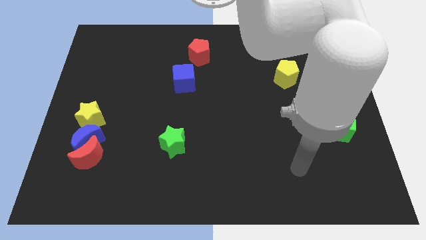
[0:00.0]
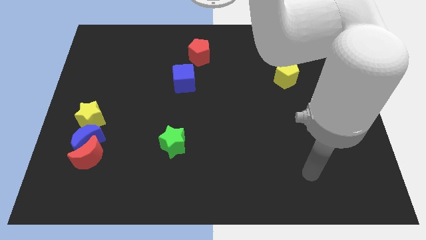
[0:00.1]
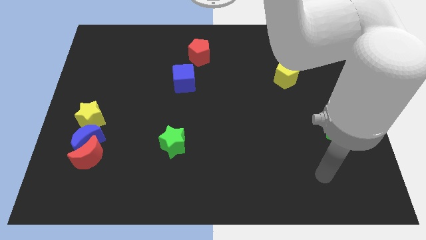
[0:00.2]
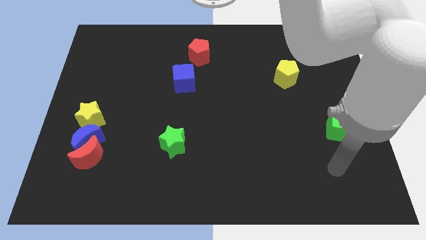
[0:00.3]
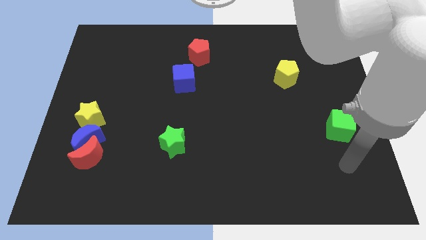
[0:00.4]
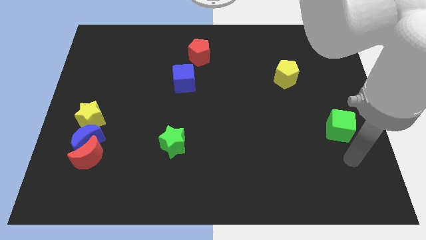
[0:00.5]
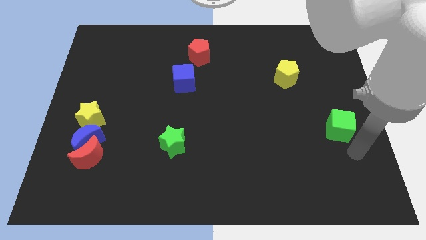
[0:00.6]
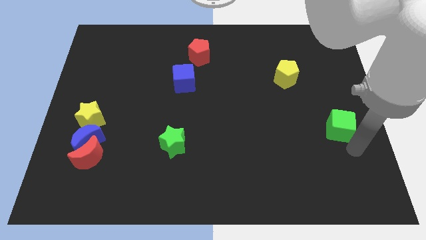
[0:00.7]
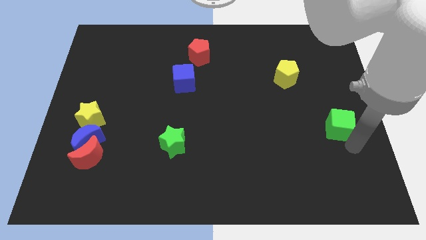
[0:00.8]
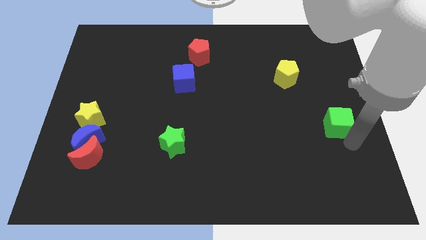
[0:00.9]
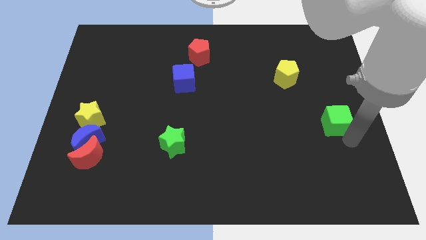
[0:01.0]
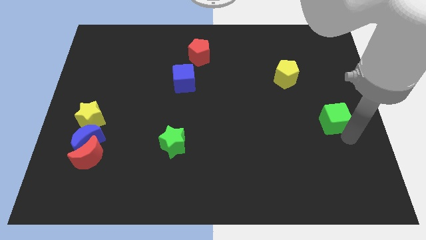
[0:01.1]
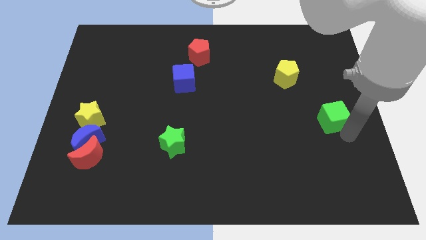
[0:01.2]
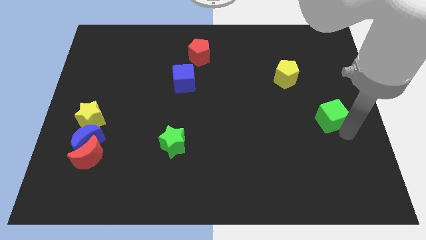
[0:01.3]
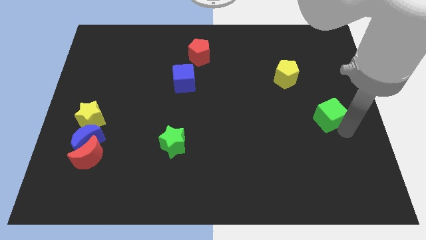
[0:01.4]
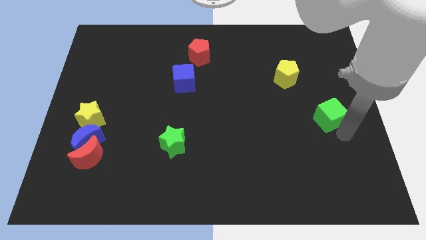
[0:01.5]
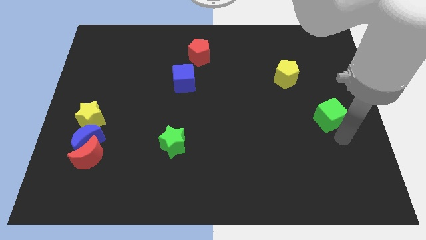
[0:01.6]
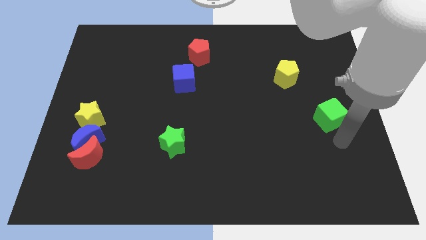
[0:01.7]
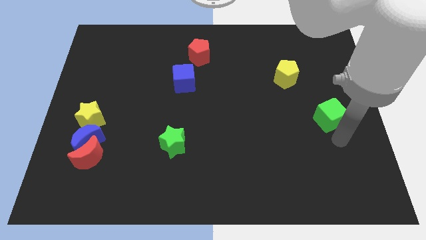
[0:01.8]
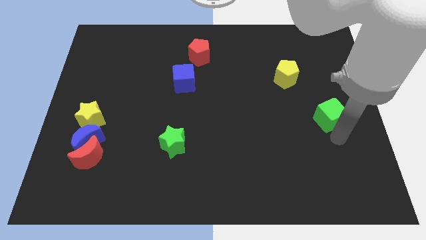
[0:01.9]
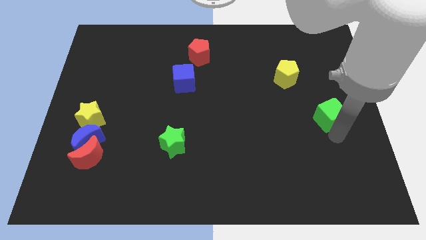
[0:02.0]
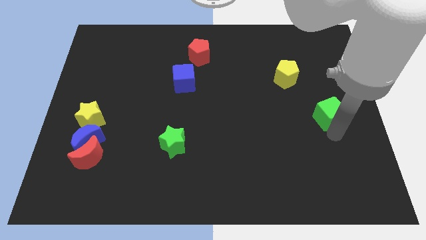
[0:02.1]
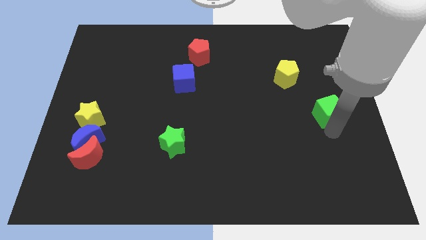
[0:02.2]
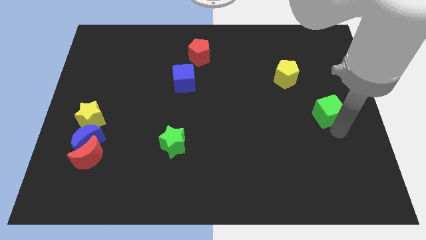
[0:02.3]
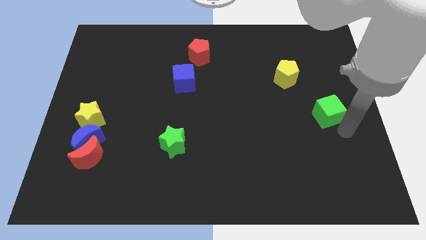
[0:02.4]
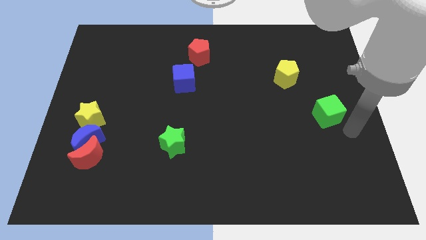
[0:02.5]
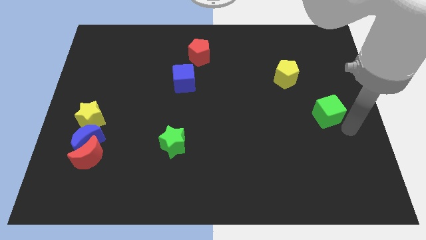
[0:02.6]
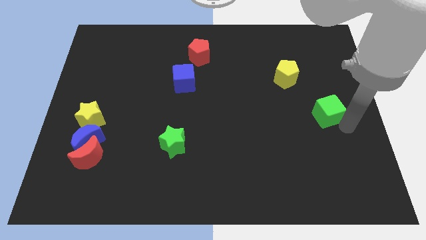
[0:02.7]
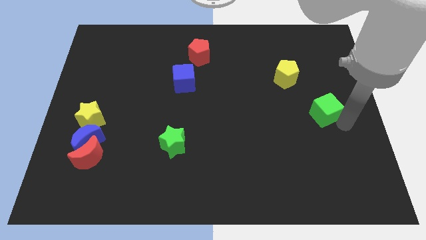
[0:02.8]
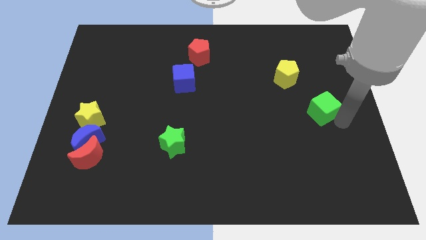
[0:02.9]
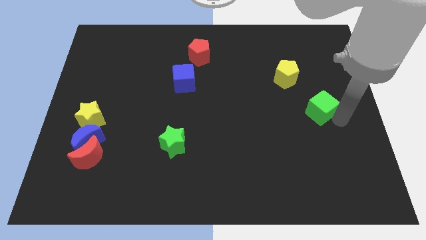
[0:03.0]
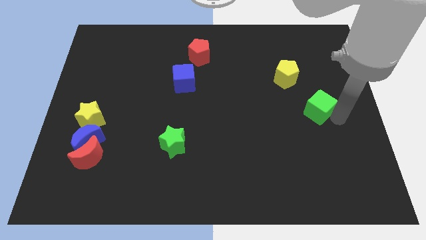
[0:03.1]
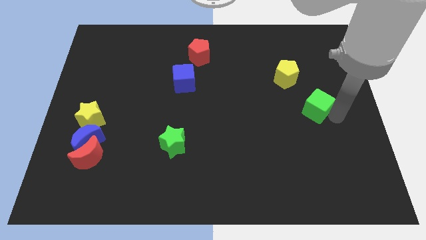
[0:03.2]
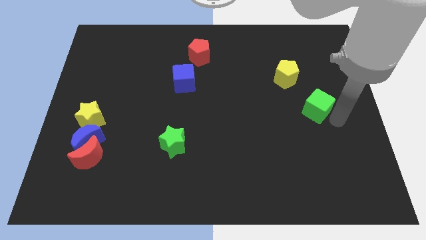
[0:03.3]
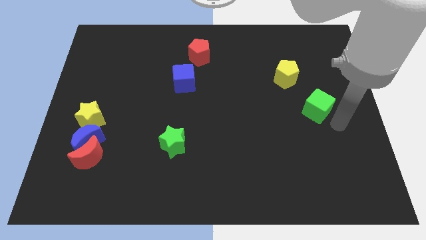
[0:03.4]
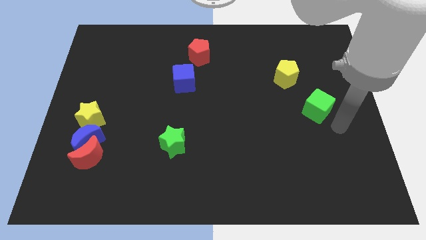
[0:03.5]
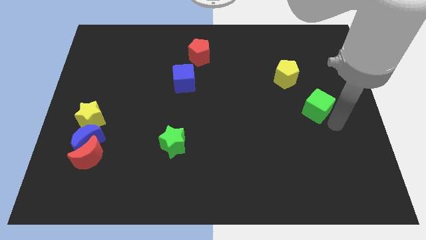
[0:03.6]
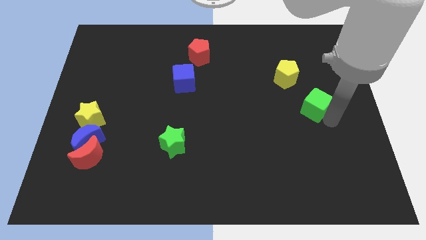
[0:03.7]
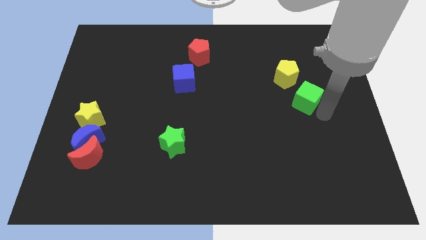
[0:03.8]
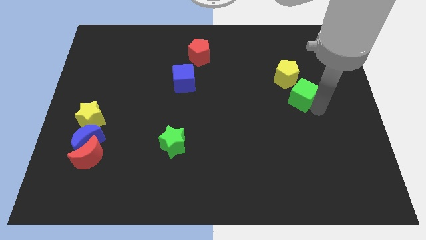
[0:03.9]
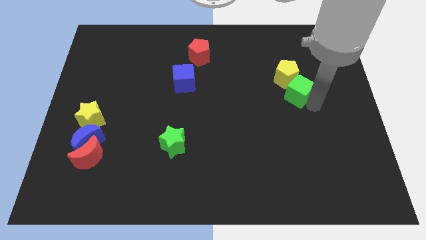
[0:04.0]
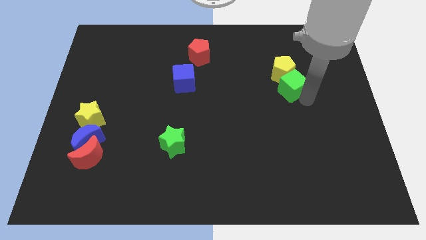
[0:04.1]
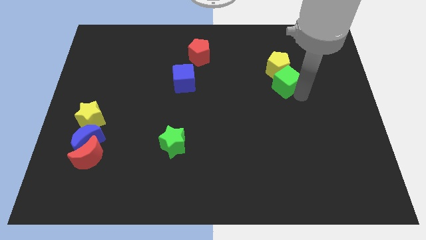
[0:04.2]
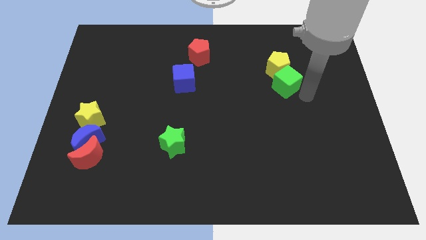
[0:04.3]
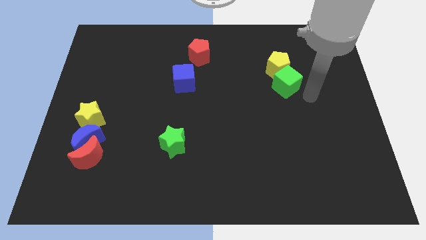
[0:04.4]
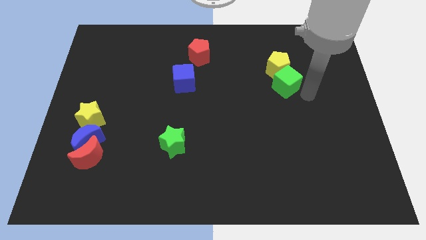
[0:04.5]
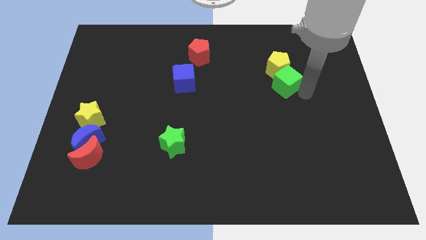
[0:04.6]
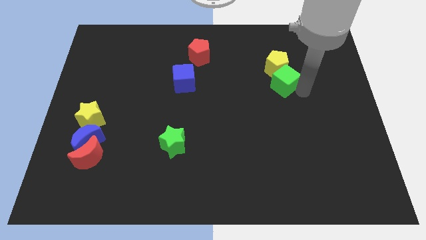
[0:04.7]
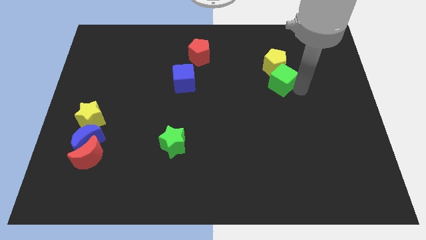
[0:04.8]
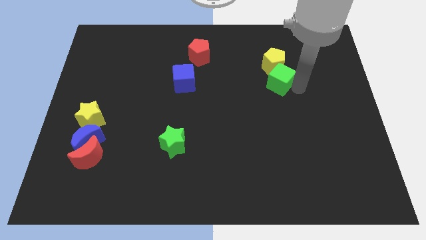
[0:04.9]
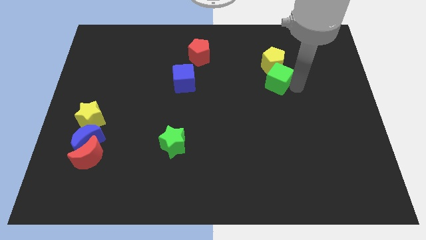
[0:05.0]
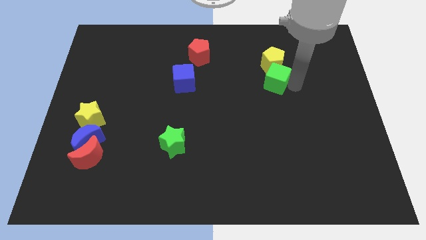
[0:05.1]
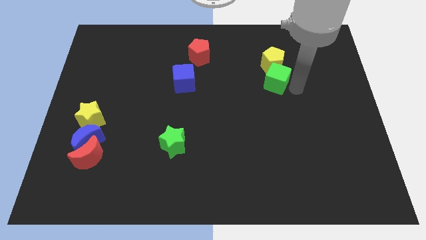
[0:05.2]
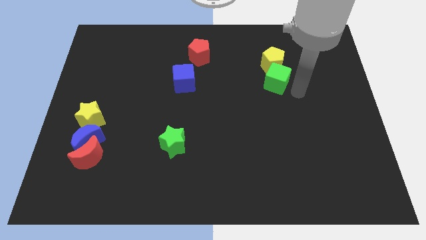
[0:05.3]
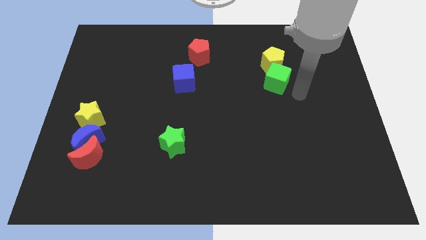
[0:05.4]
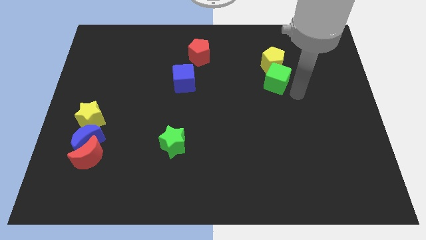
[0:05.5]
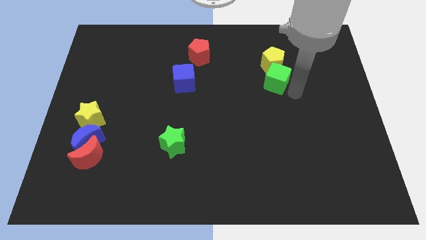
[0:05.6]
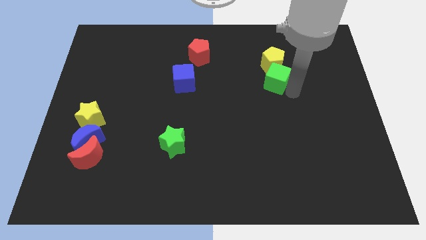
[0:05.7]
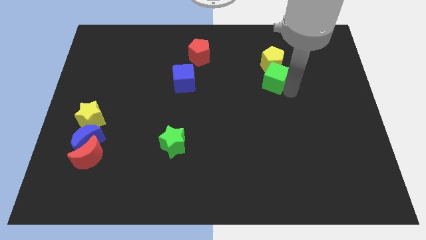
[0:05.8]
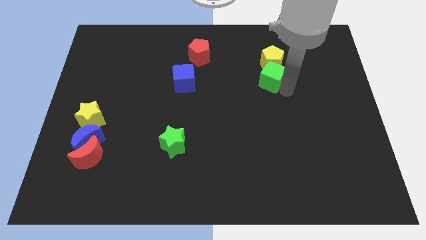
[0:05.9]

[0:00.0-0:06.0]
push the green cube upwards and then to the left

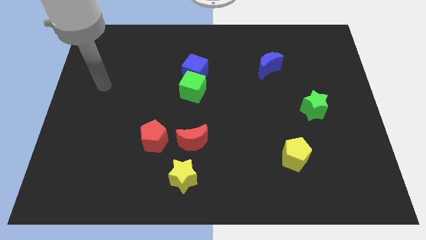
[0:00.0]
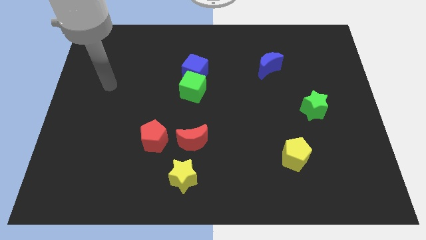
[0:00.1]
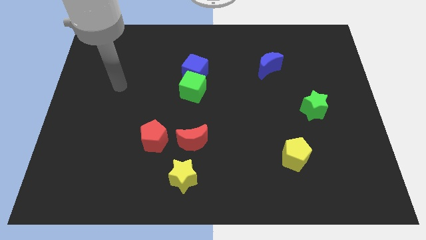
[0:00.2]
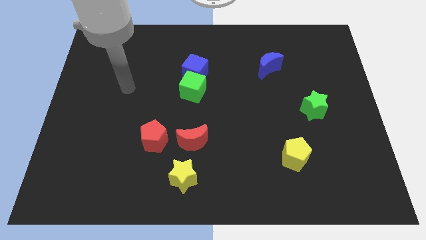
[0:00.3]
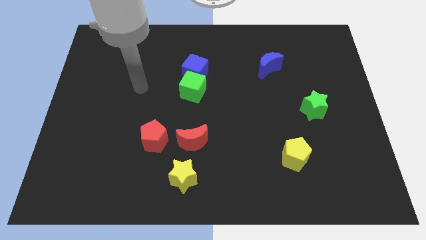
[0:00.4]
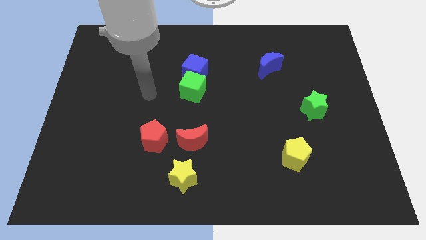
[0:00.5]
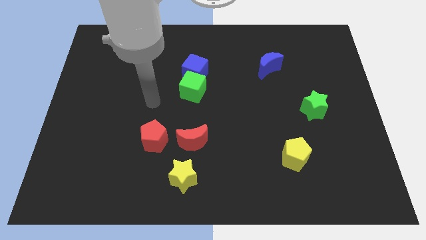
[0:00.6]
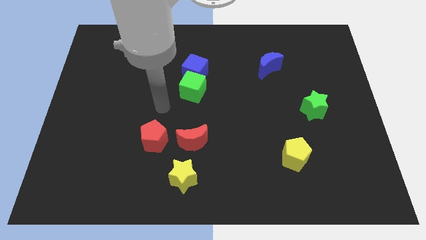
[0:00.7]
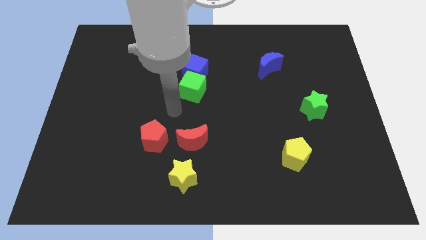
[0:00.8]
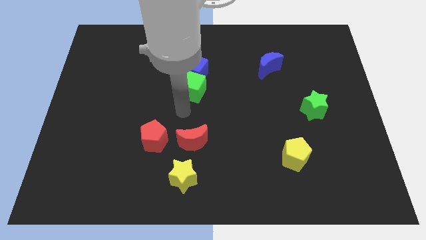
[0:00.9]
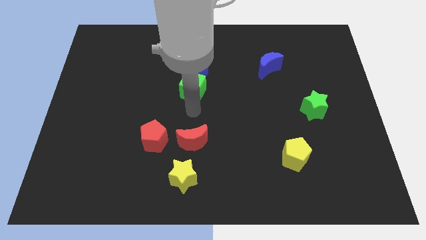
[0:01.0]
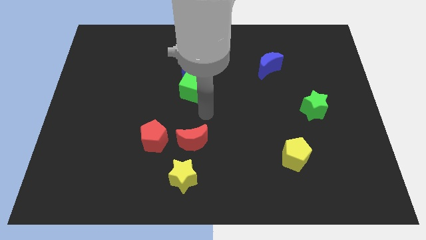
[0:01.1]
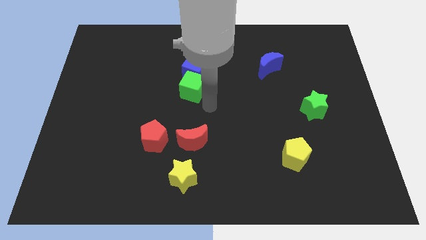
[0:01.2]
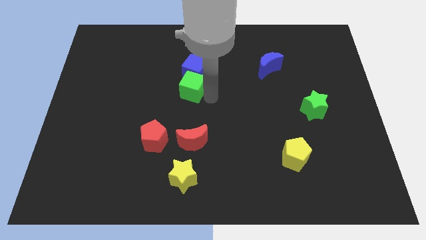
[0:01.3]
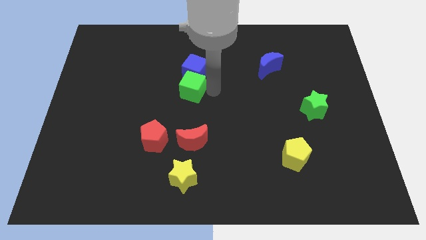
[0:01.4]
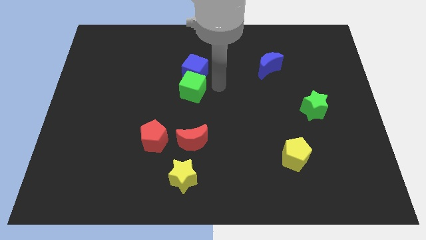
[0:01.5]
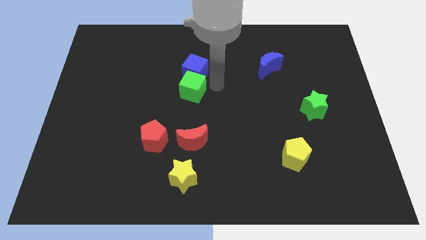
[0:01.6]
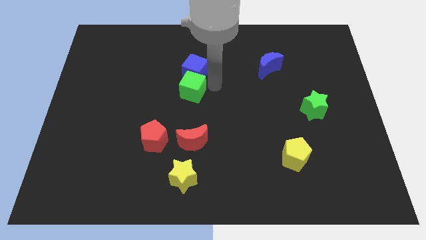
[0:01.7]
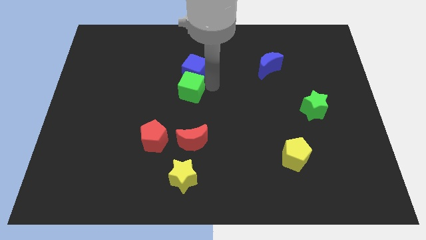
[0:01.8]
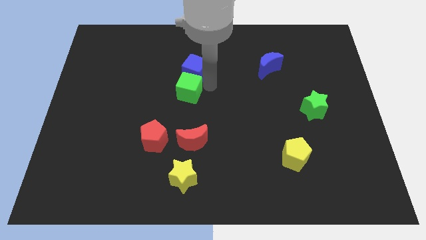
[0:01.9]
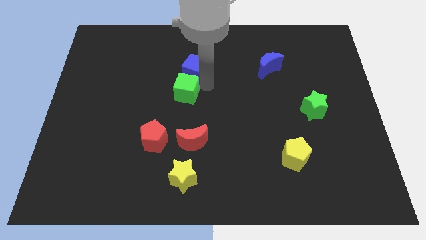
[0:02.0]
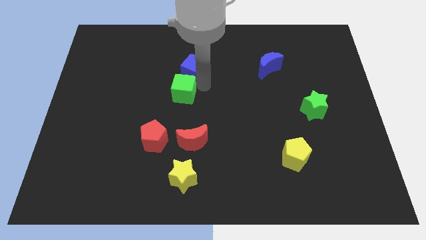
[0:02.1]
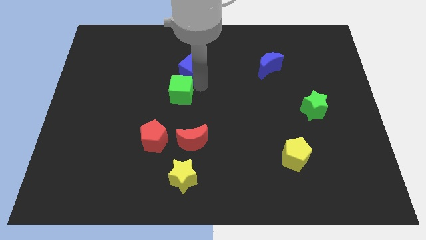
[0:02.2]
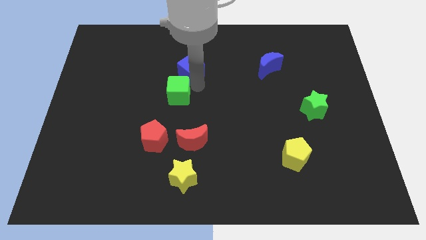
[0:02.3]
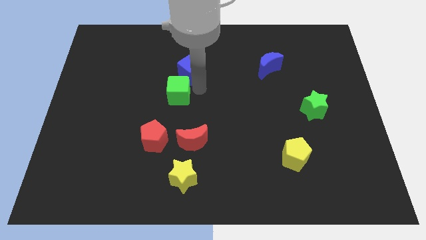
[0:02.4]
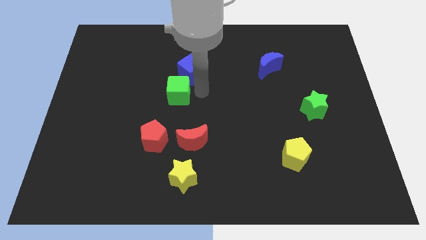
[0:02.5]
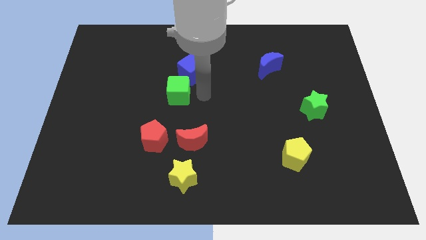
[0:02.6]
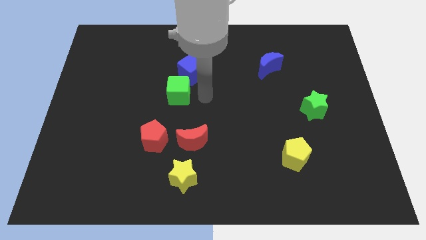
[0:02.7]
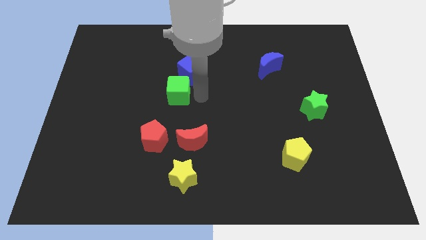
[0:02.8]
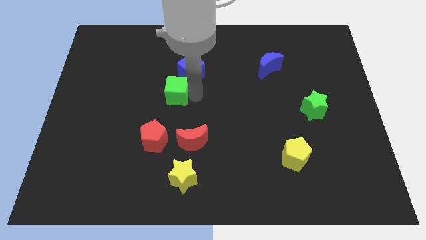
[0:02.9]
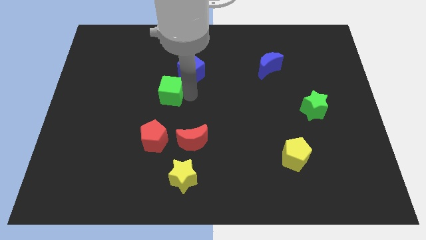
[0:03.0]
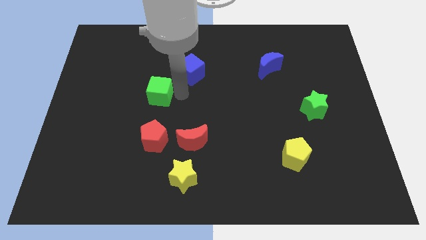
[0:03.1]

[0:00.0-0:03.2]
push the green cube to the left somewhat
